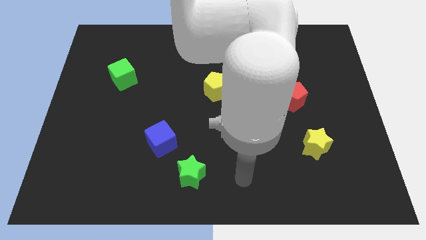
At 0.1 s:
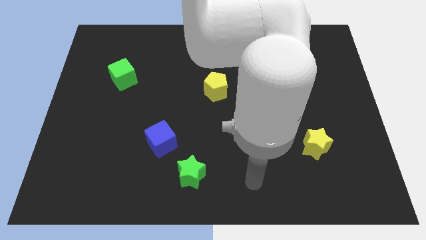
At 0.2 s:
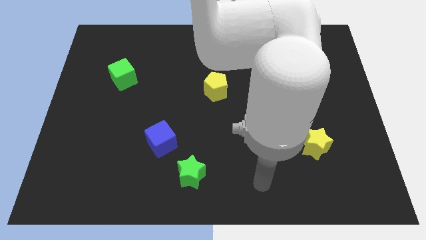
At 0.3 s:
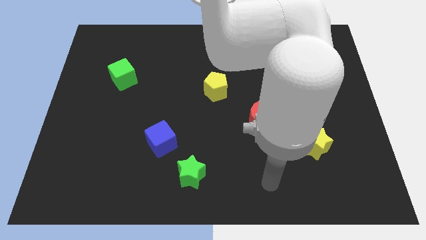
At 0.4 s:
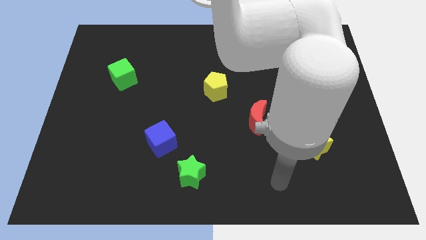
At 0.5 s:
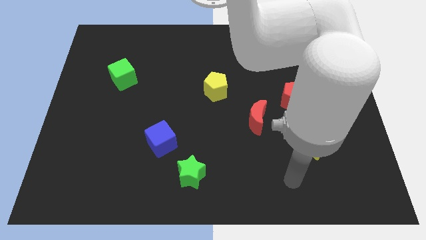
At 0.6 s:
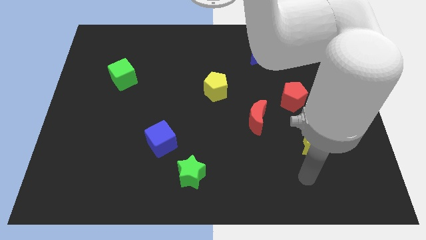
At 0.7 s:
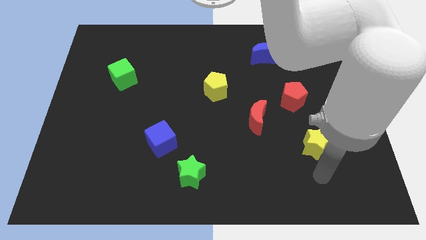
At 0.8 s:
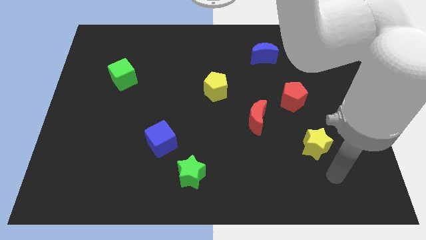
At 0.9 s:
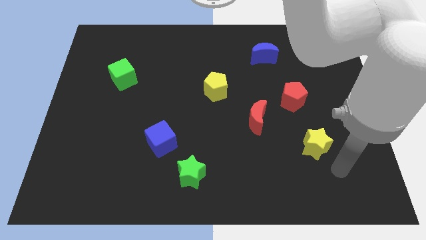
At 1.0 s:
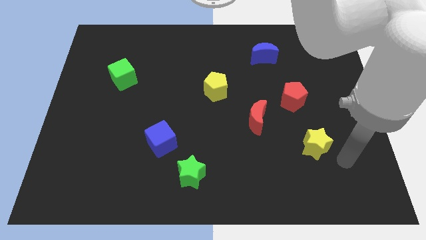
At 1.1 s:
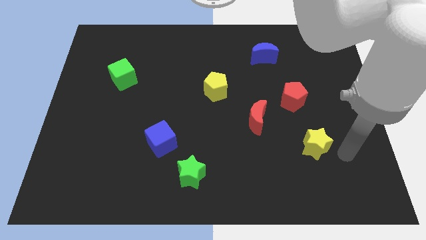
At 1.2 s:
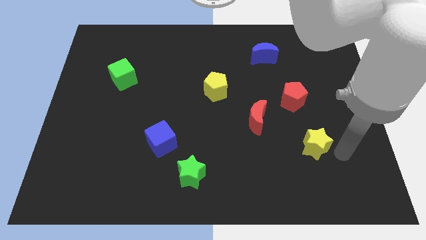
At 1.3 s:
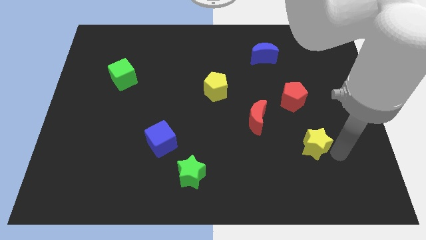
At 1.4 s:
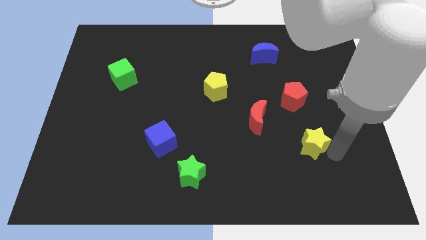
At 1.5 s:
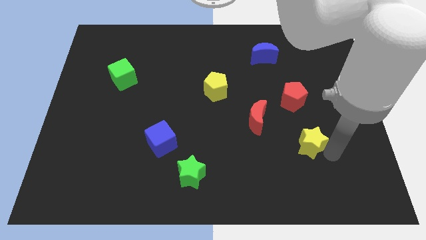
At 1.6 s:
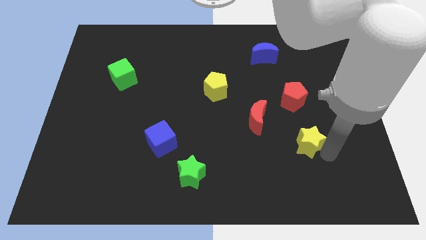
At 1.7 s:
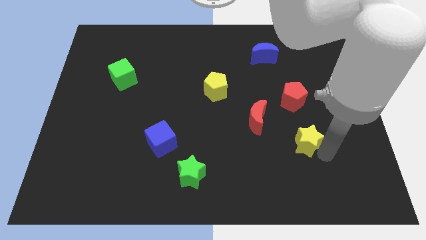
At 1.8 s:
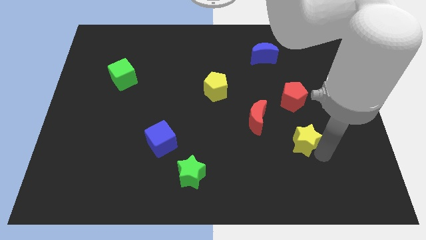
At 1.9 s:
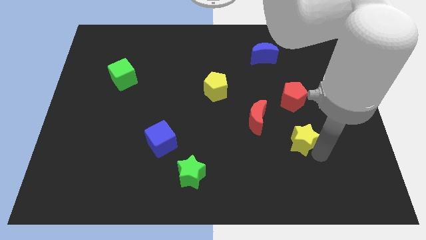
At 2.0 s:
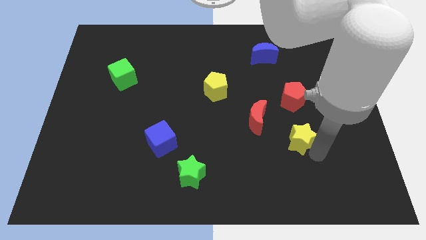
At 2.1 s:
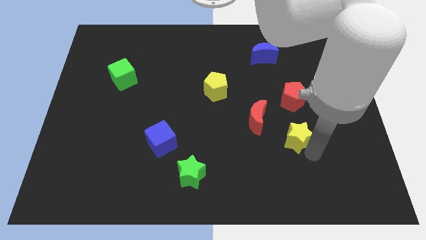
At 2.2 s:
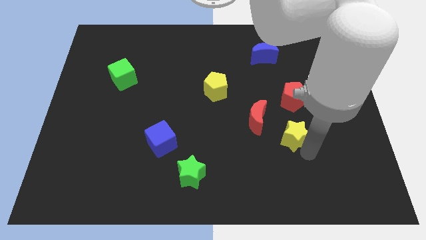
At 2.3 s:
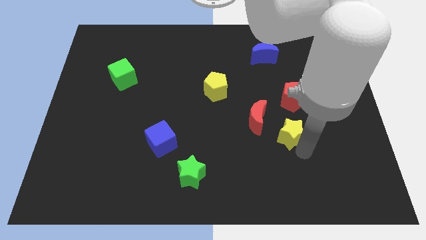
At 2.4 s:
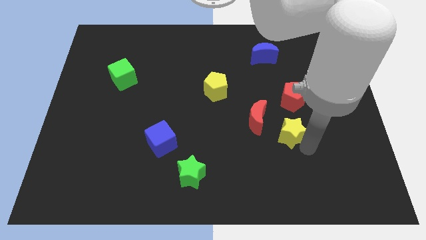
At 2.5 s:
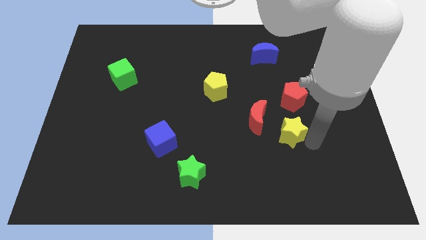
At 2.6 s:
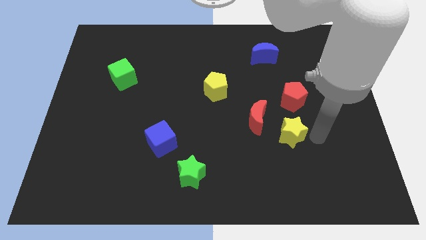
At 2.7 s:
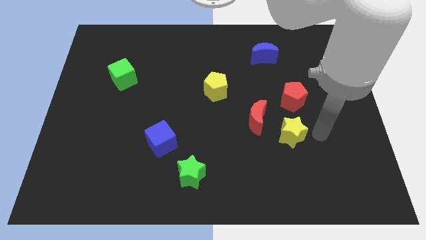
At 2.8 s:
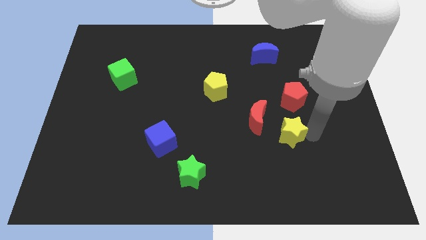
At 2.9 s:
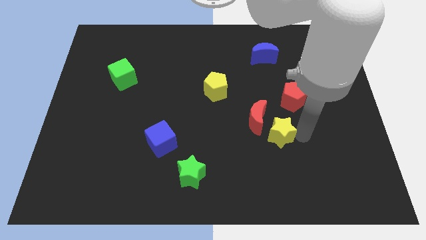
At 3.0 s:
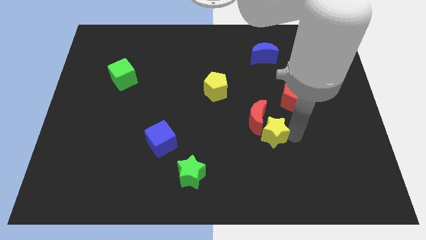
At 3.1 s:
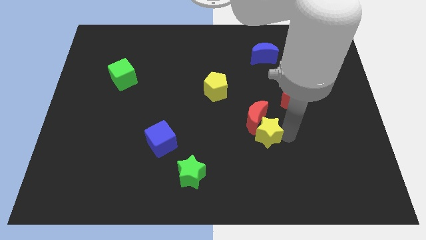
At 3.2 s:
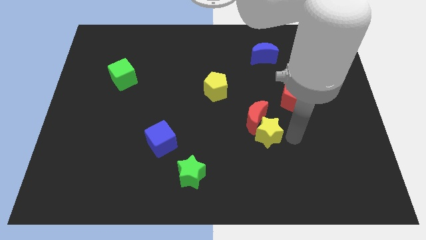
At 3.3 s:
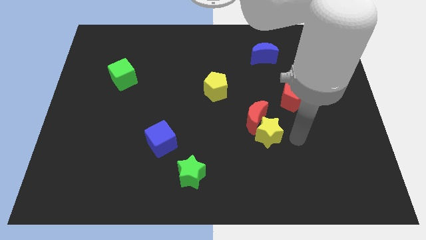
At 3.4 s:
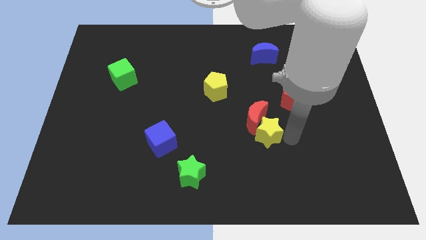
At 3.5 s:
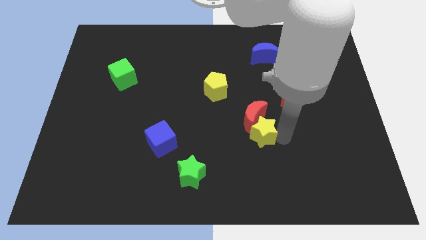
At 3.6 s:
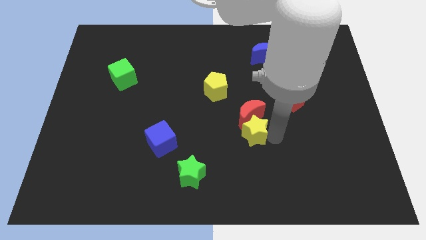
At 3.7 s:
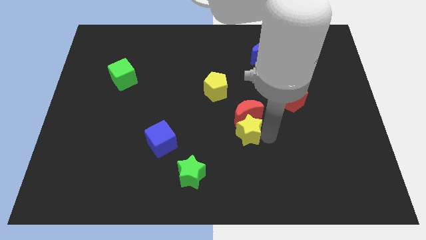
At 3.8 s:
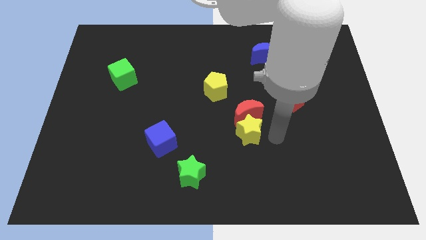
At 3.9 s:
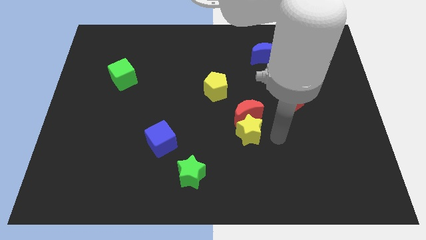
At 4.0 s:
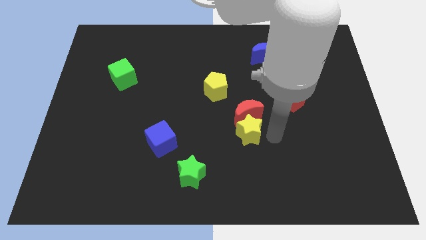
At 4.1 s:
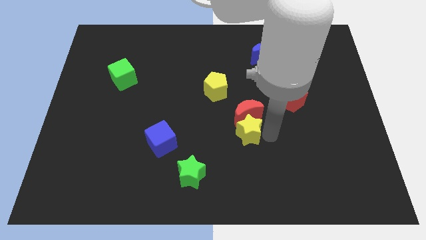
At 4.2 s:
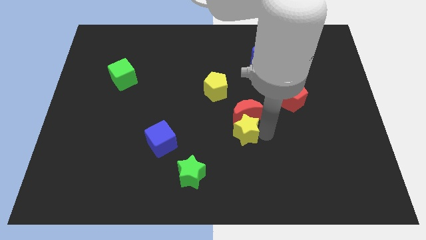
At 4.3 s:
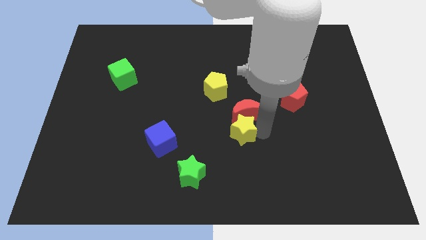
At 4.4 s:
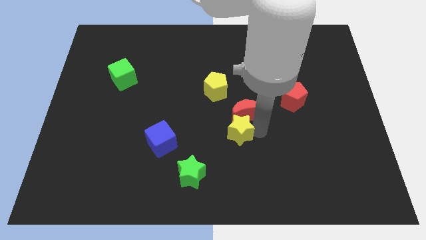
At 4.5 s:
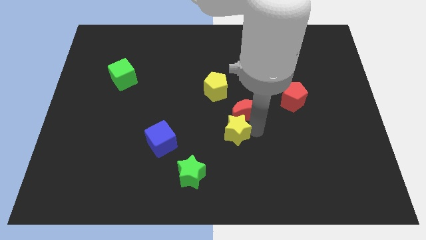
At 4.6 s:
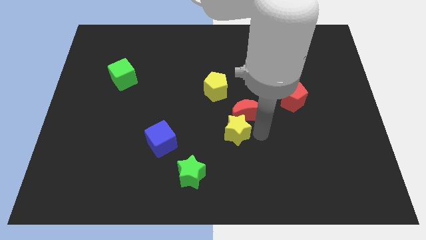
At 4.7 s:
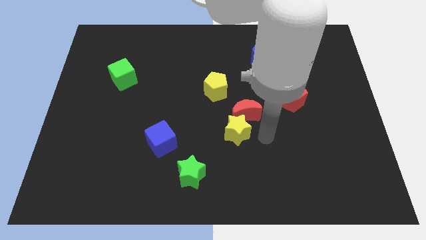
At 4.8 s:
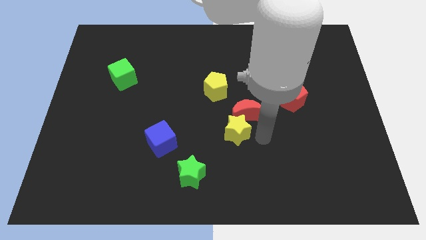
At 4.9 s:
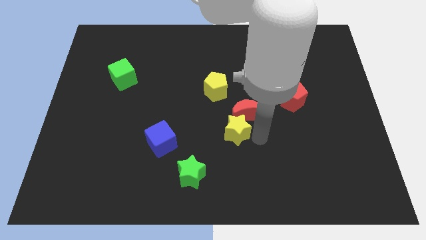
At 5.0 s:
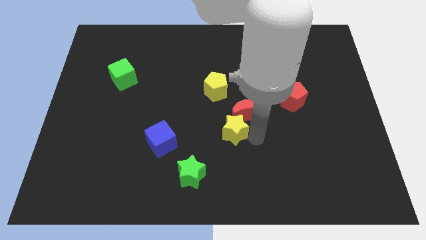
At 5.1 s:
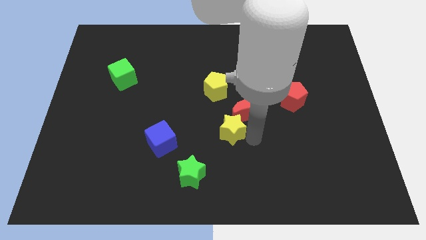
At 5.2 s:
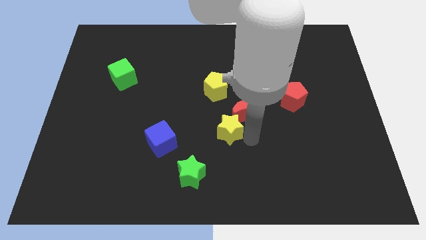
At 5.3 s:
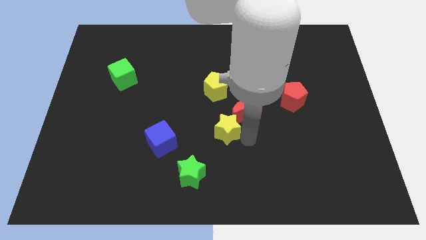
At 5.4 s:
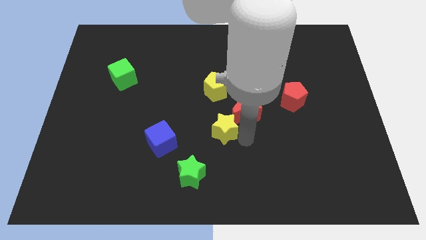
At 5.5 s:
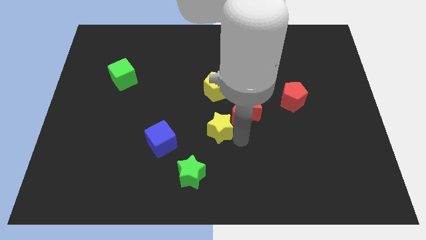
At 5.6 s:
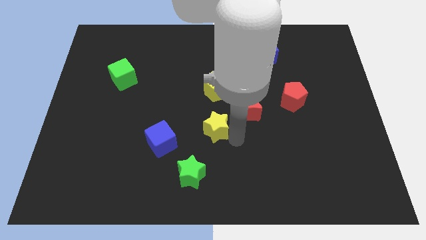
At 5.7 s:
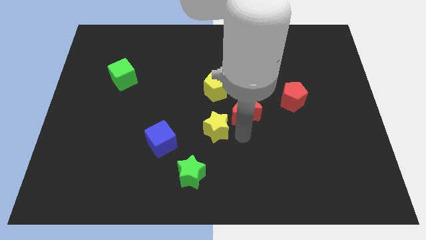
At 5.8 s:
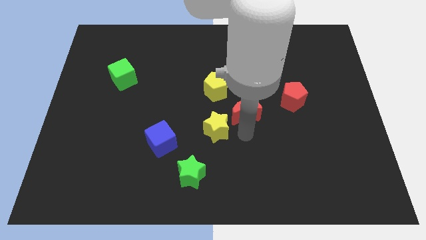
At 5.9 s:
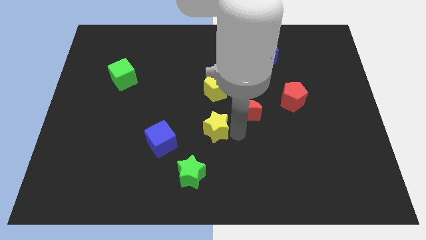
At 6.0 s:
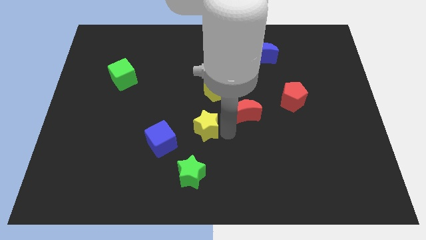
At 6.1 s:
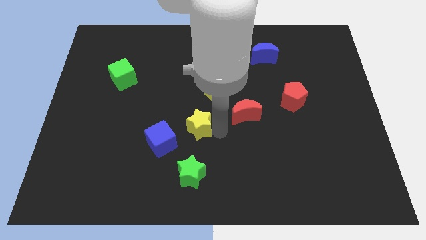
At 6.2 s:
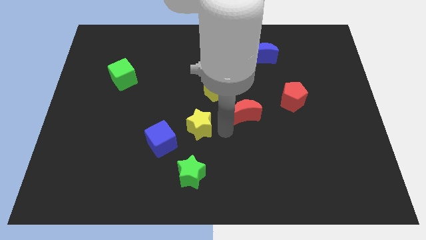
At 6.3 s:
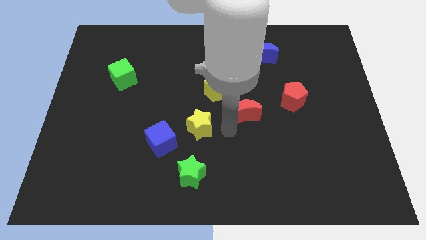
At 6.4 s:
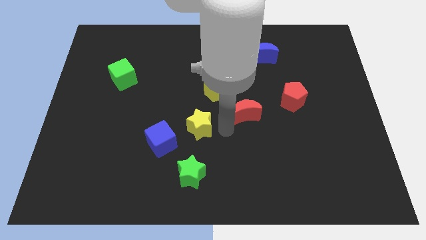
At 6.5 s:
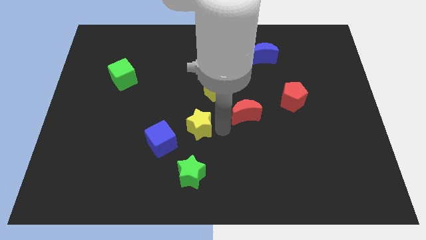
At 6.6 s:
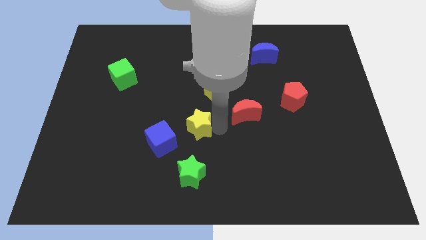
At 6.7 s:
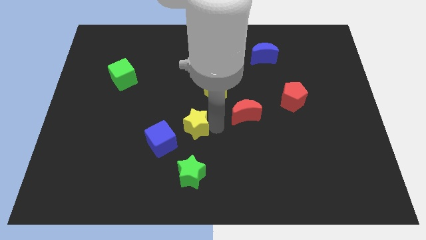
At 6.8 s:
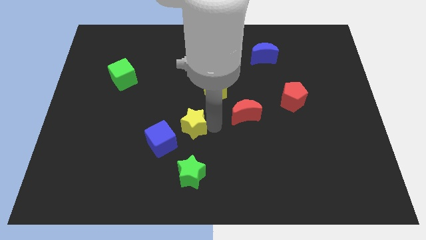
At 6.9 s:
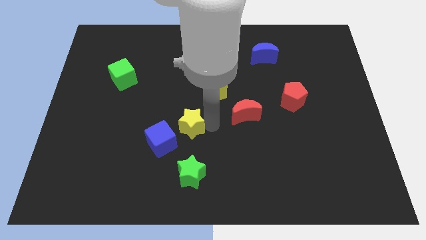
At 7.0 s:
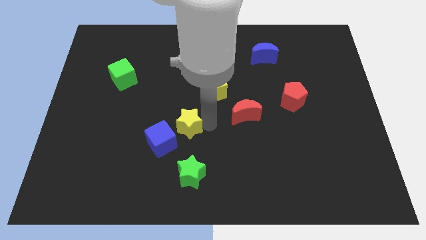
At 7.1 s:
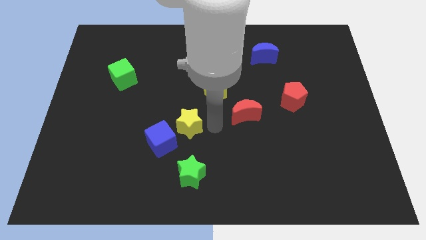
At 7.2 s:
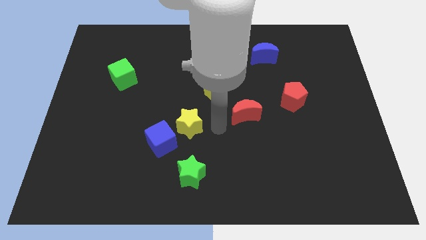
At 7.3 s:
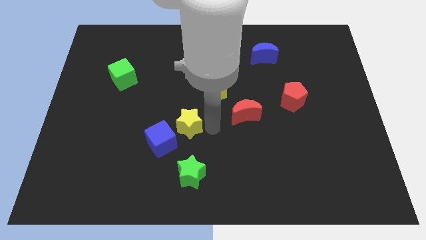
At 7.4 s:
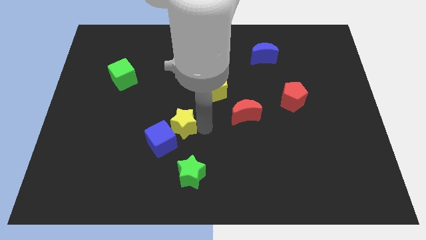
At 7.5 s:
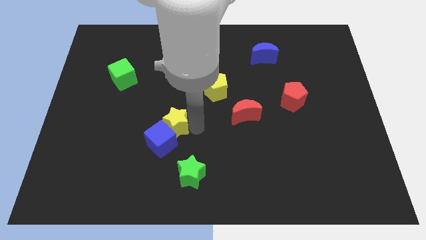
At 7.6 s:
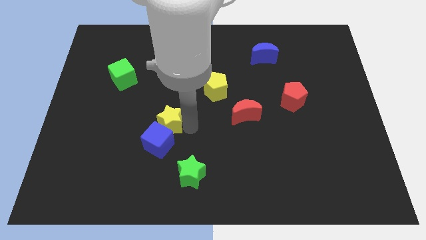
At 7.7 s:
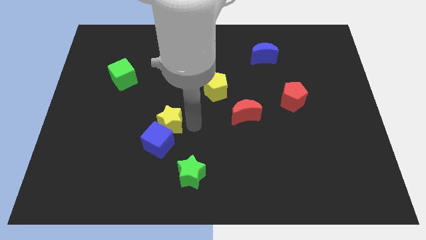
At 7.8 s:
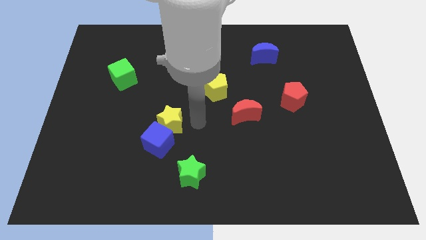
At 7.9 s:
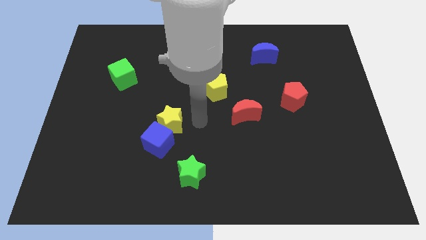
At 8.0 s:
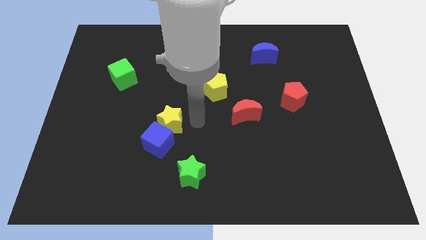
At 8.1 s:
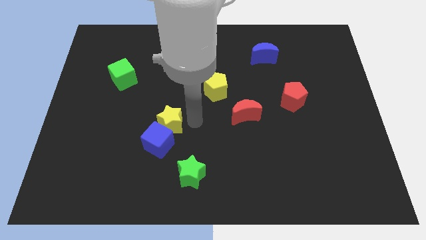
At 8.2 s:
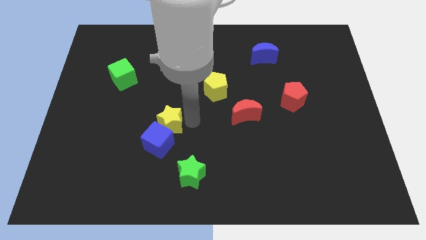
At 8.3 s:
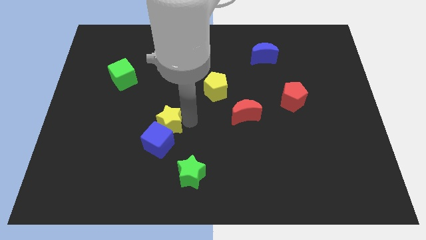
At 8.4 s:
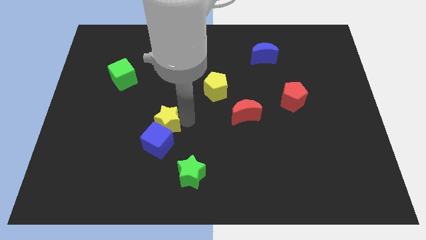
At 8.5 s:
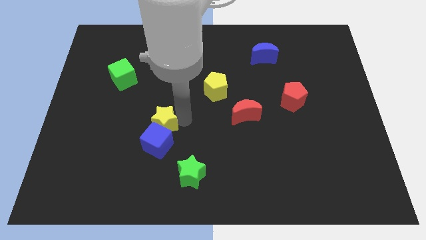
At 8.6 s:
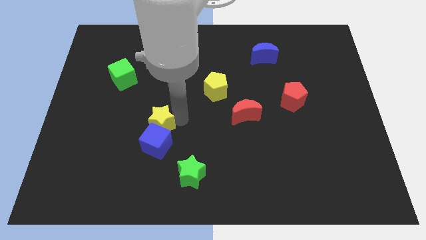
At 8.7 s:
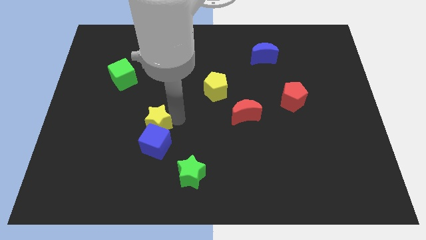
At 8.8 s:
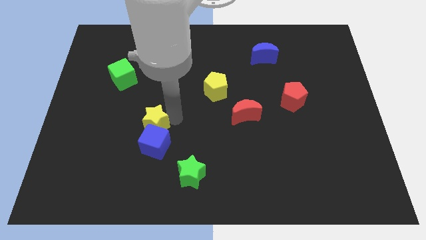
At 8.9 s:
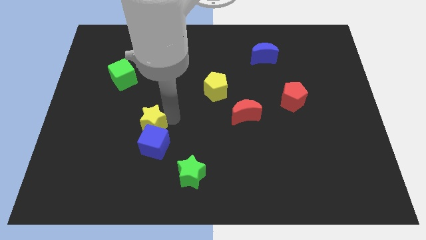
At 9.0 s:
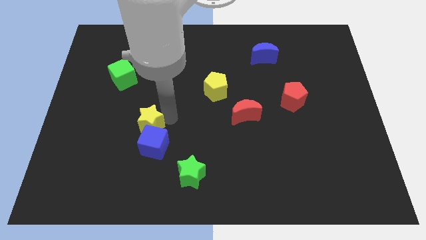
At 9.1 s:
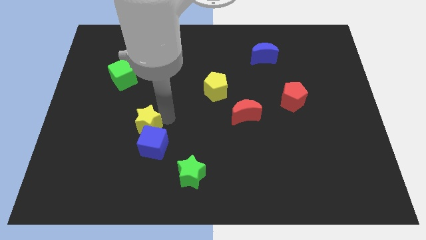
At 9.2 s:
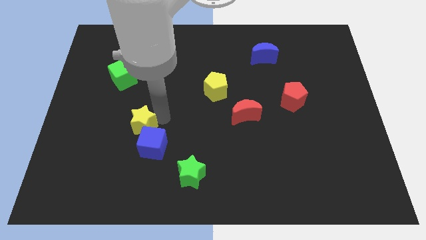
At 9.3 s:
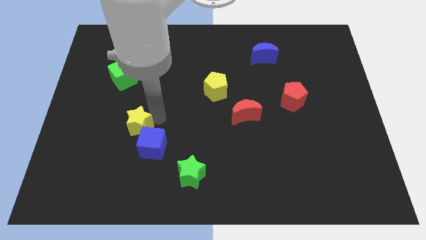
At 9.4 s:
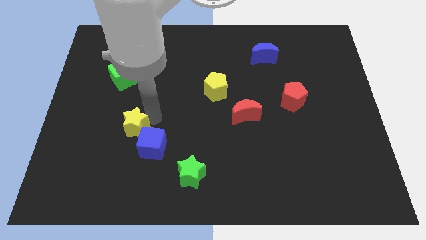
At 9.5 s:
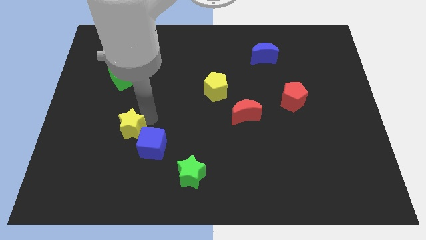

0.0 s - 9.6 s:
move the yellow star just left of the blue cube
